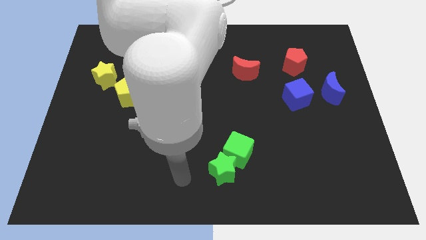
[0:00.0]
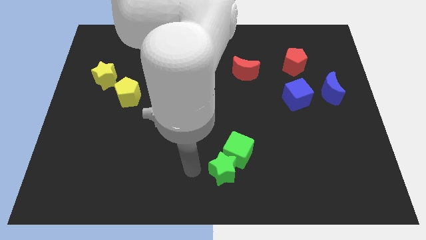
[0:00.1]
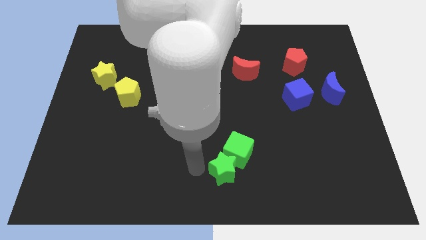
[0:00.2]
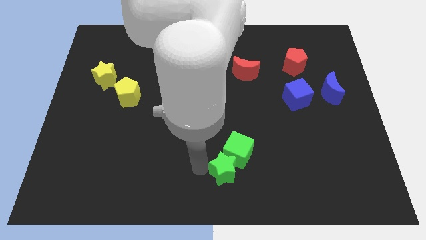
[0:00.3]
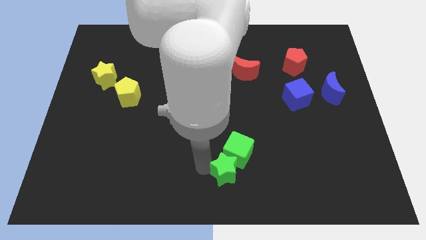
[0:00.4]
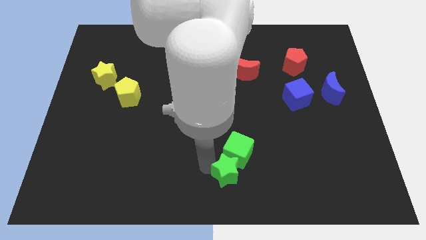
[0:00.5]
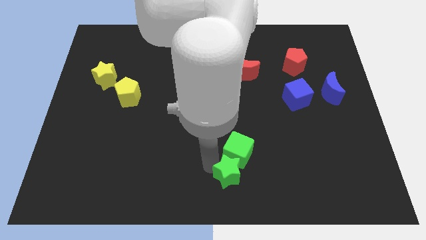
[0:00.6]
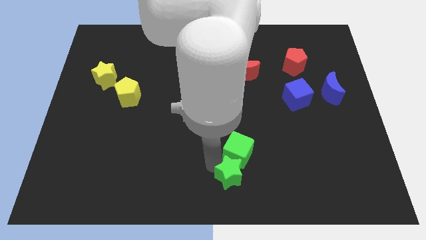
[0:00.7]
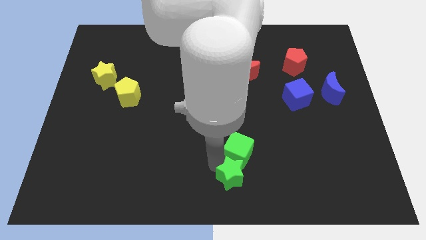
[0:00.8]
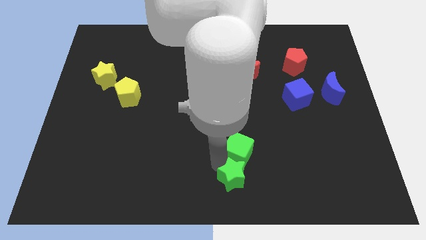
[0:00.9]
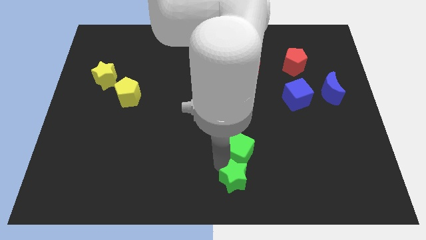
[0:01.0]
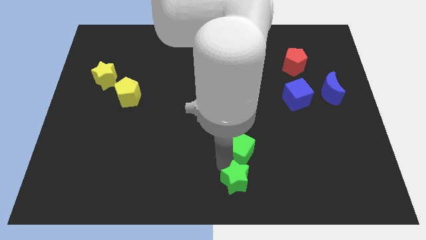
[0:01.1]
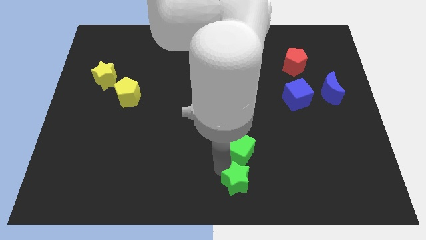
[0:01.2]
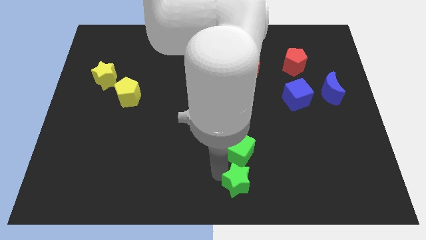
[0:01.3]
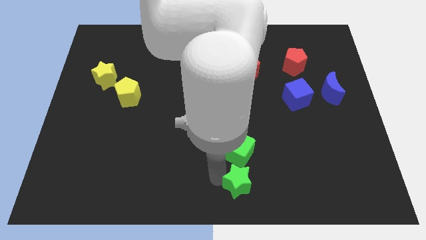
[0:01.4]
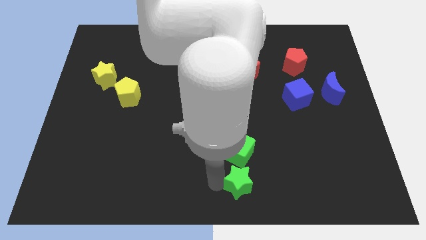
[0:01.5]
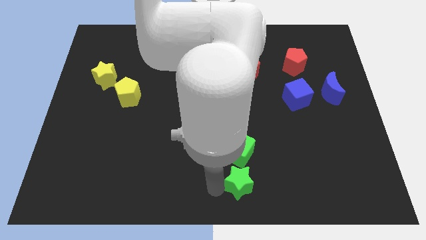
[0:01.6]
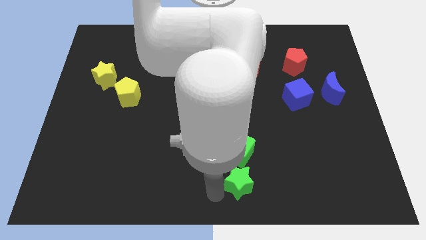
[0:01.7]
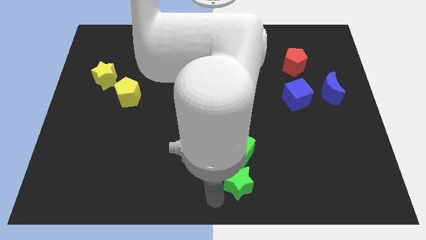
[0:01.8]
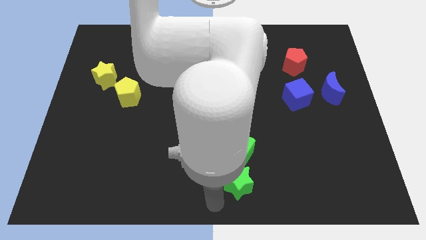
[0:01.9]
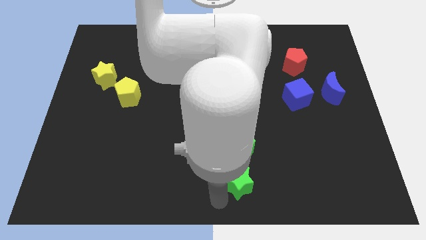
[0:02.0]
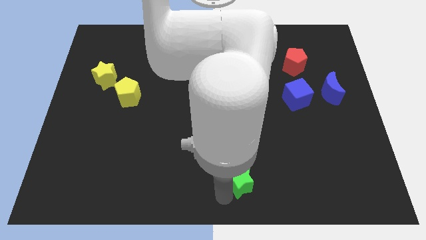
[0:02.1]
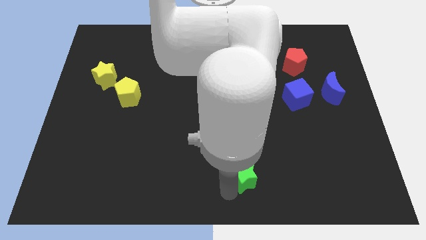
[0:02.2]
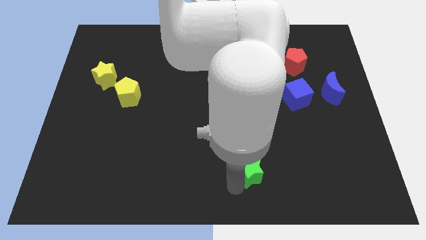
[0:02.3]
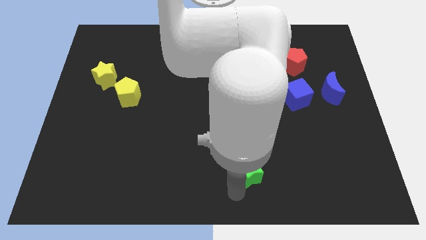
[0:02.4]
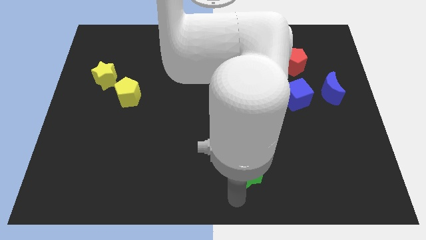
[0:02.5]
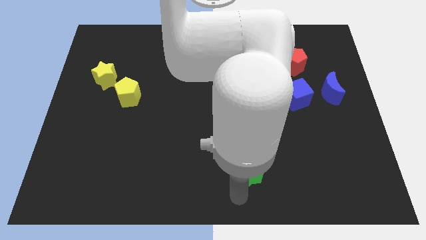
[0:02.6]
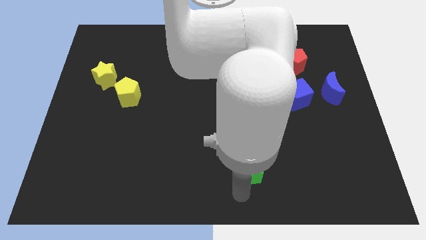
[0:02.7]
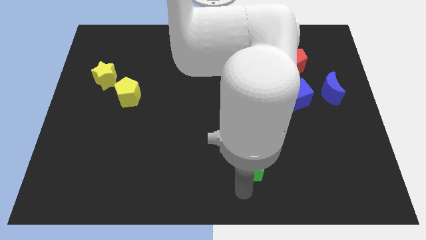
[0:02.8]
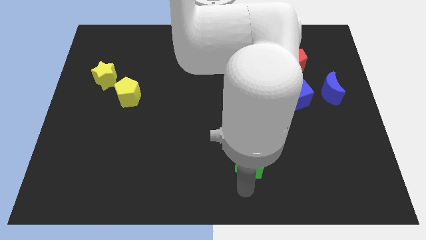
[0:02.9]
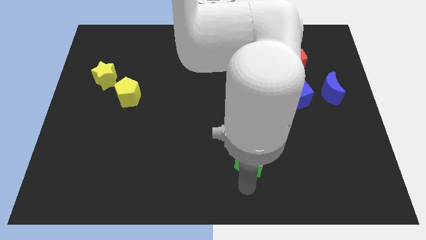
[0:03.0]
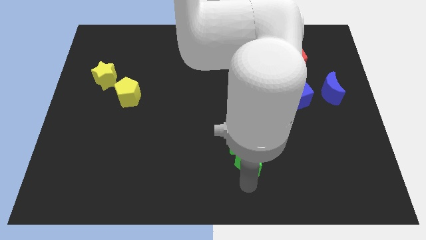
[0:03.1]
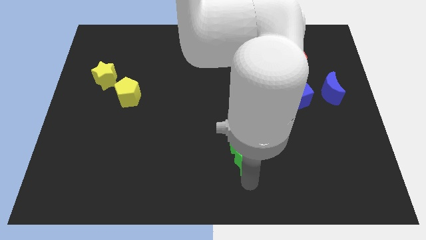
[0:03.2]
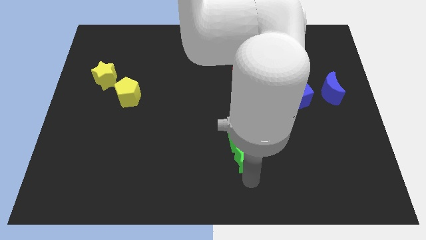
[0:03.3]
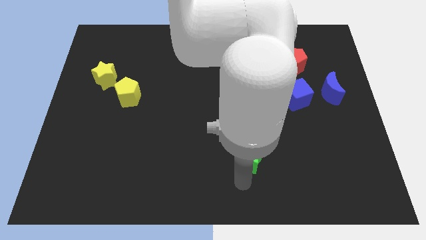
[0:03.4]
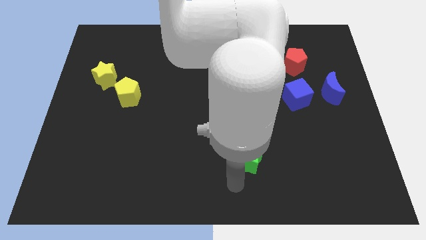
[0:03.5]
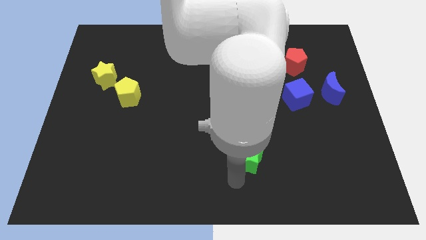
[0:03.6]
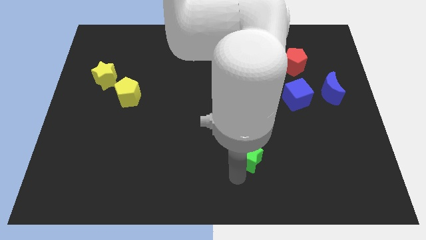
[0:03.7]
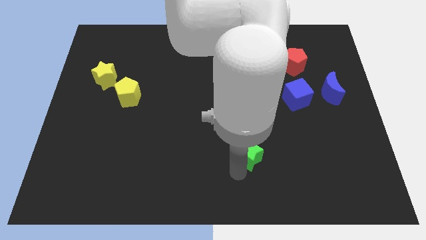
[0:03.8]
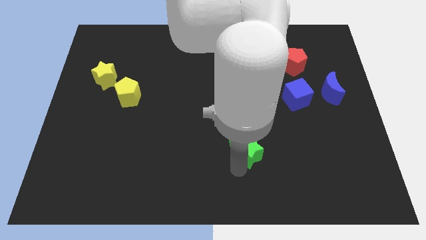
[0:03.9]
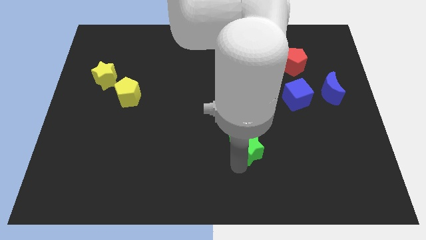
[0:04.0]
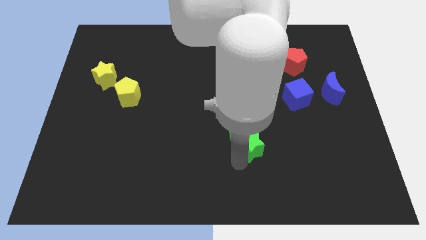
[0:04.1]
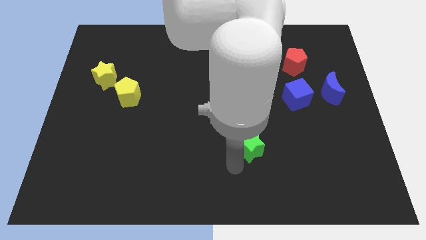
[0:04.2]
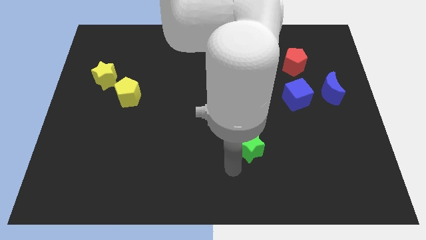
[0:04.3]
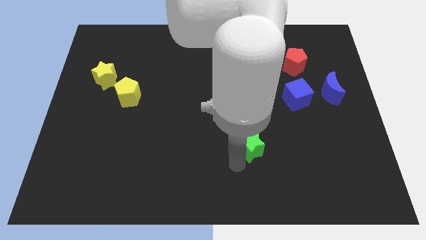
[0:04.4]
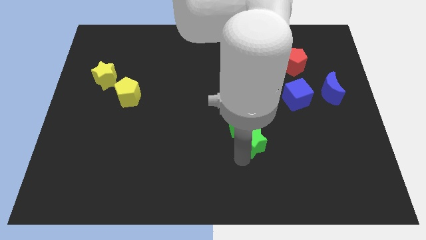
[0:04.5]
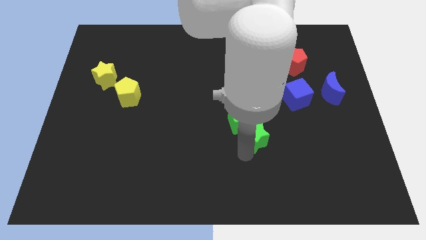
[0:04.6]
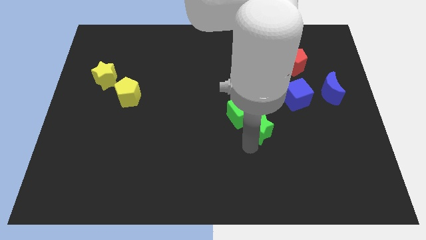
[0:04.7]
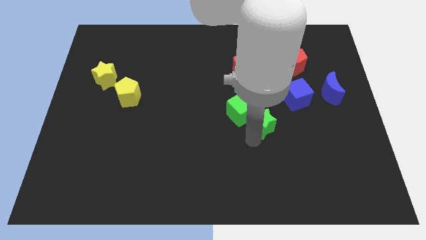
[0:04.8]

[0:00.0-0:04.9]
push the green star to the bottom left of the blue cube

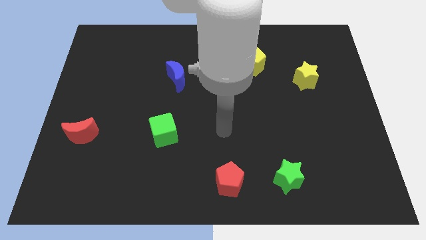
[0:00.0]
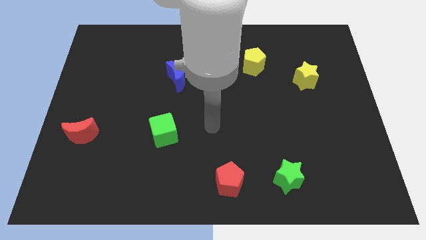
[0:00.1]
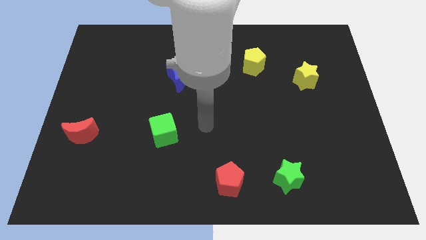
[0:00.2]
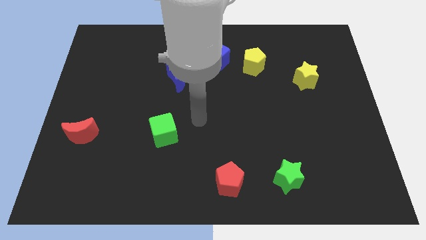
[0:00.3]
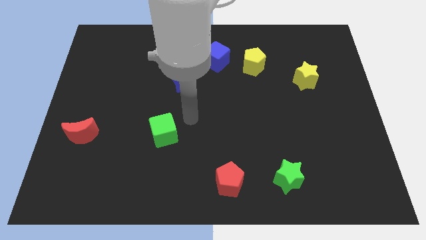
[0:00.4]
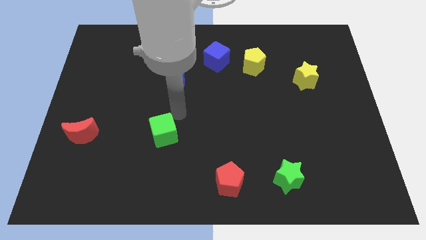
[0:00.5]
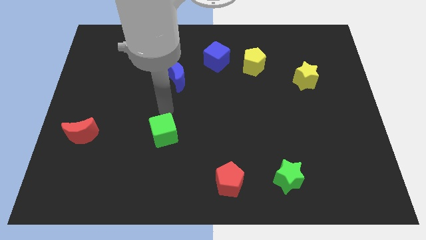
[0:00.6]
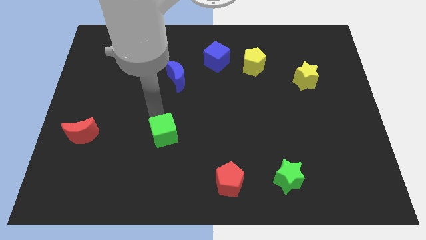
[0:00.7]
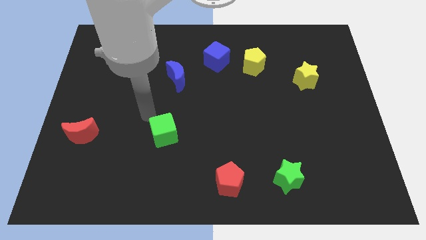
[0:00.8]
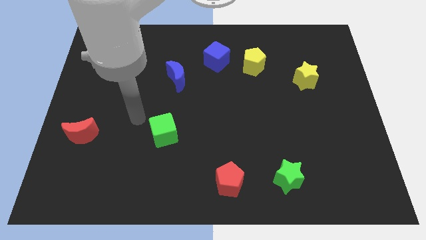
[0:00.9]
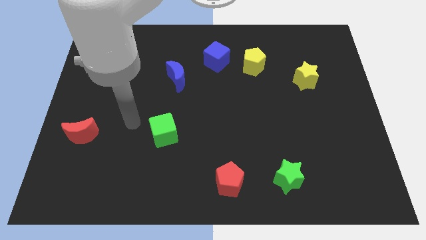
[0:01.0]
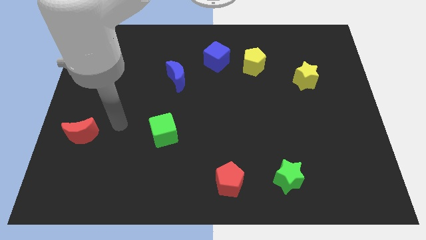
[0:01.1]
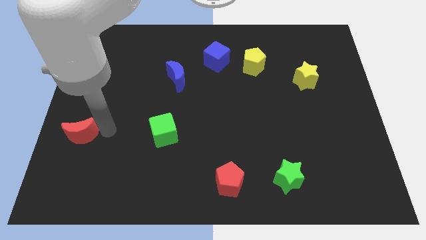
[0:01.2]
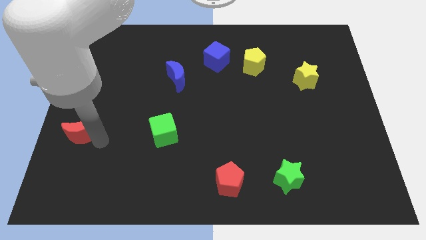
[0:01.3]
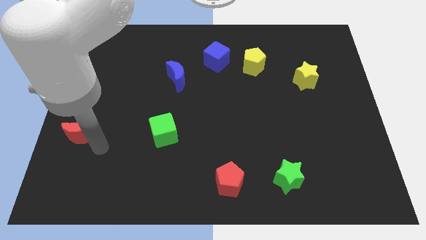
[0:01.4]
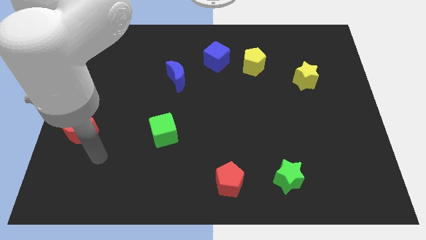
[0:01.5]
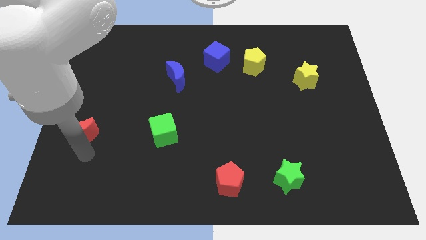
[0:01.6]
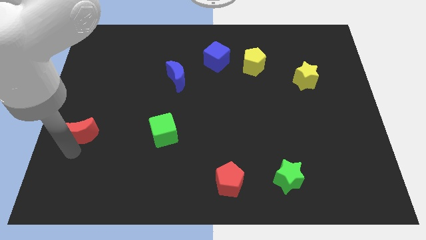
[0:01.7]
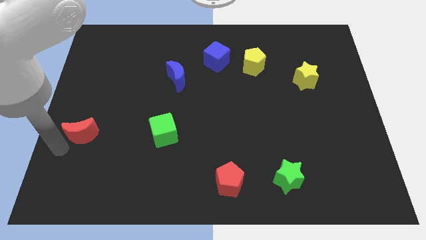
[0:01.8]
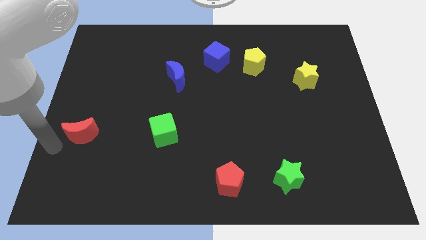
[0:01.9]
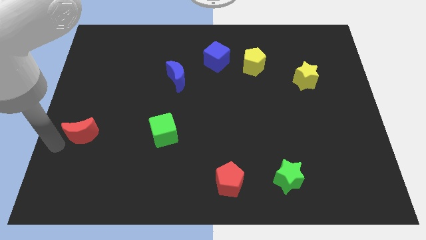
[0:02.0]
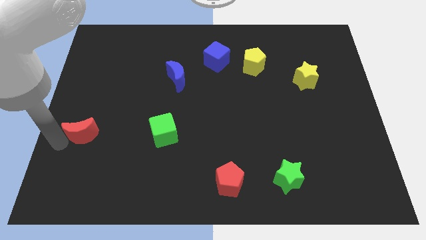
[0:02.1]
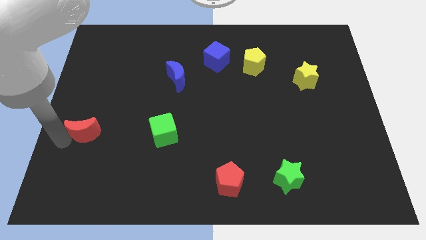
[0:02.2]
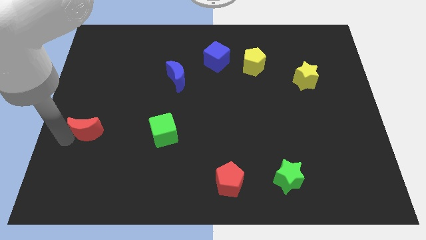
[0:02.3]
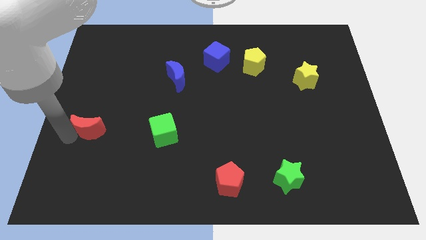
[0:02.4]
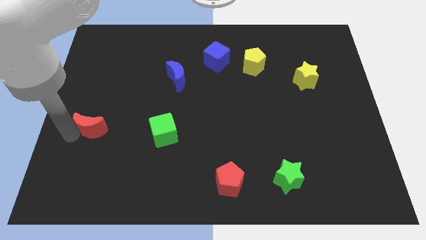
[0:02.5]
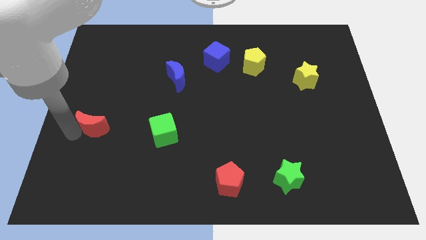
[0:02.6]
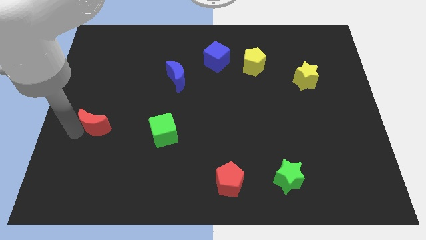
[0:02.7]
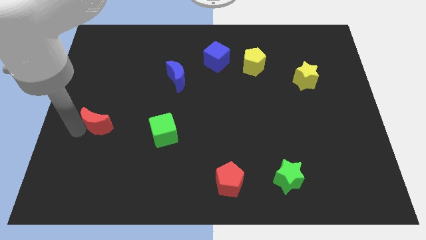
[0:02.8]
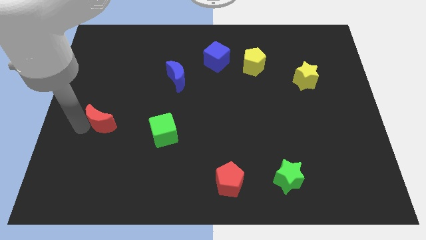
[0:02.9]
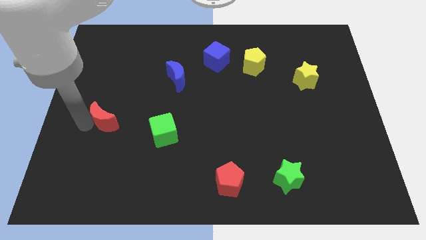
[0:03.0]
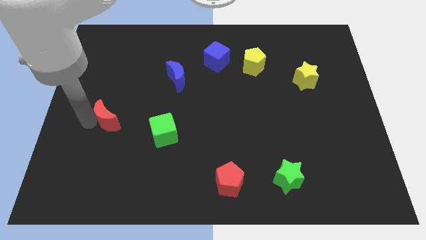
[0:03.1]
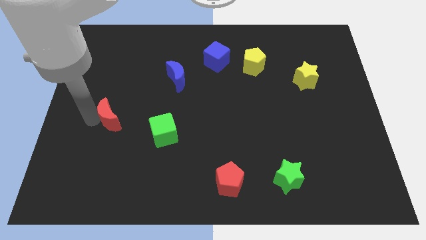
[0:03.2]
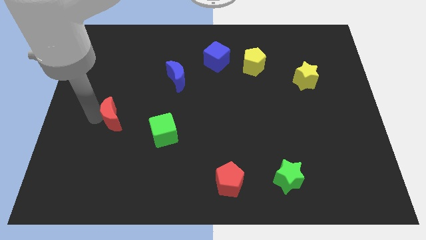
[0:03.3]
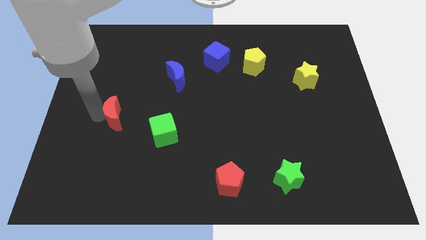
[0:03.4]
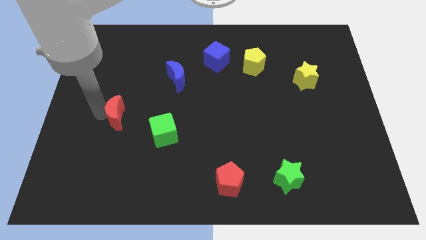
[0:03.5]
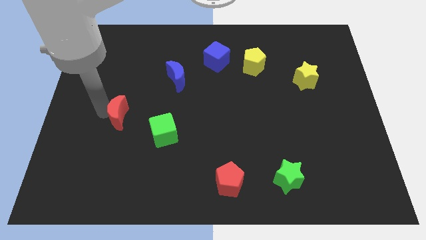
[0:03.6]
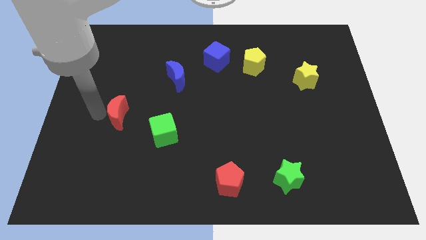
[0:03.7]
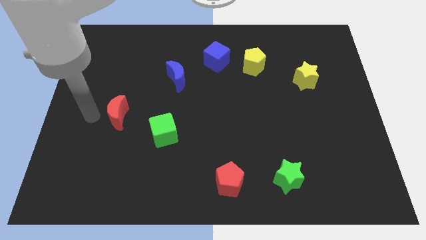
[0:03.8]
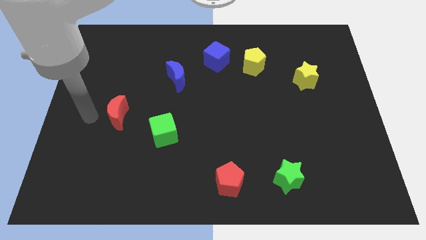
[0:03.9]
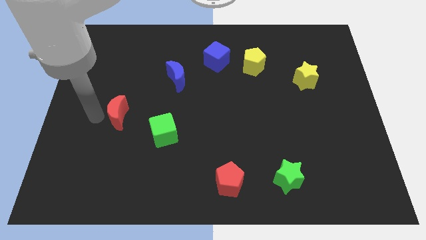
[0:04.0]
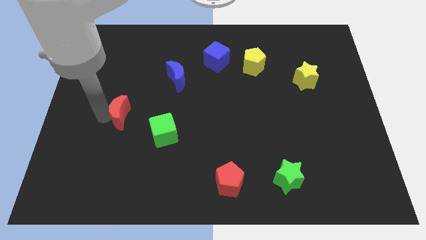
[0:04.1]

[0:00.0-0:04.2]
push the red moon to the top left side of the green cube
